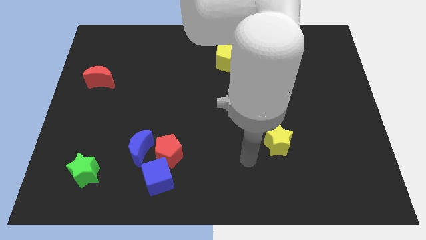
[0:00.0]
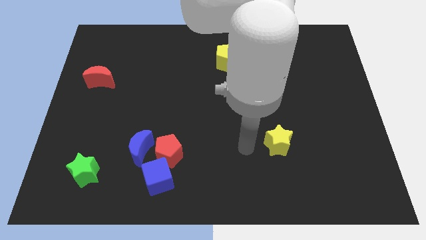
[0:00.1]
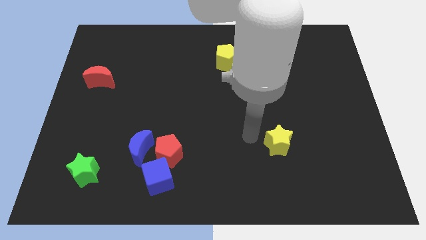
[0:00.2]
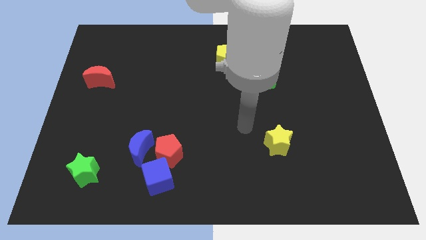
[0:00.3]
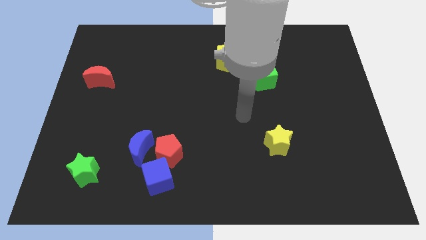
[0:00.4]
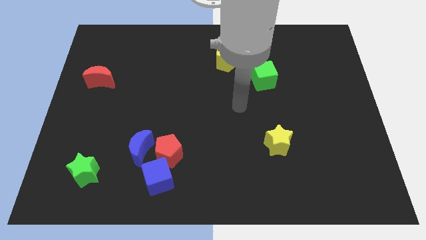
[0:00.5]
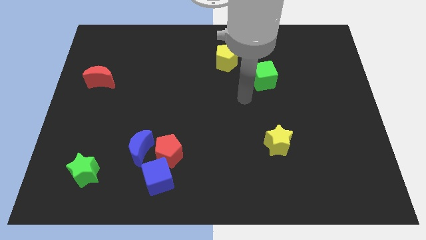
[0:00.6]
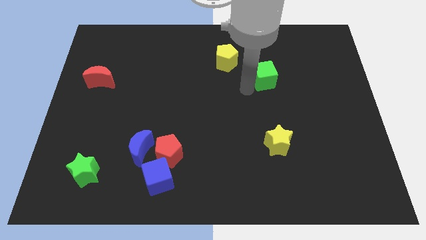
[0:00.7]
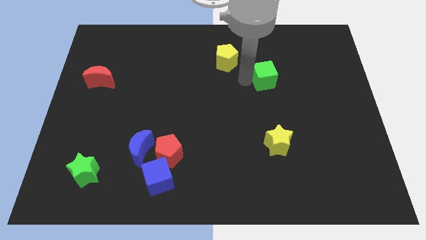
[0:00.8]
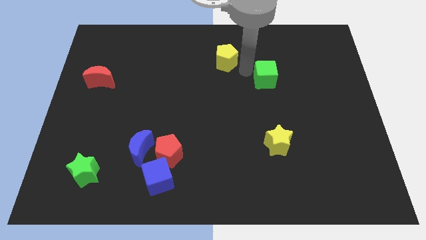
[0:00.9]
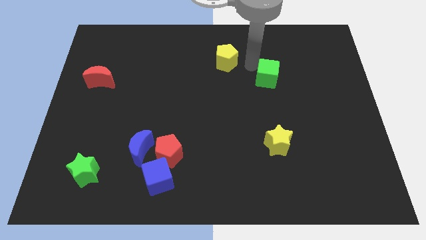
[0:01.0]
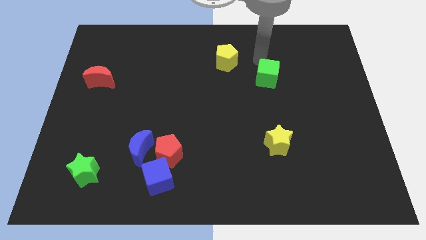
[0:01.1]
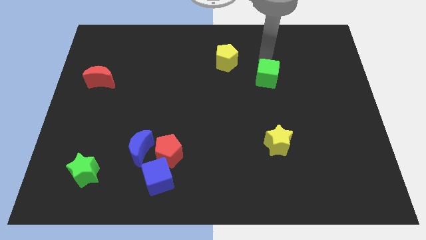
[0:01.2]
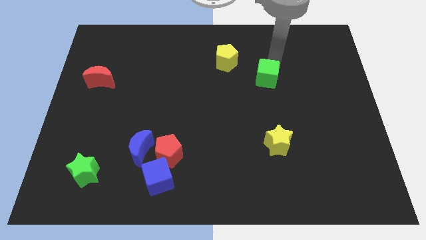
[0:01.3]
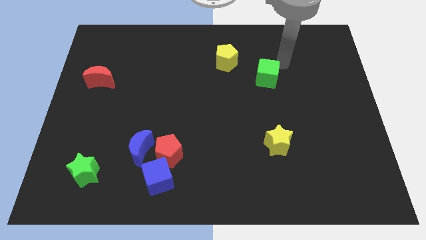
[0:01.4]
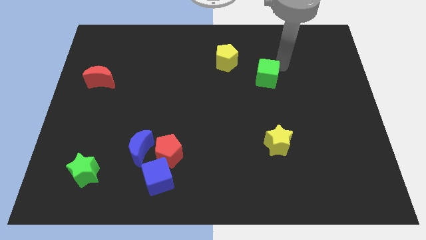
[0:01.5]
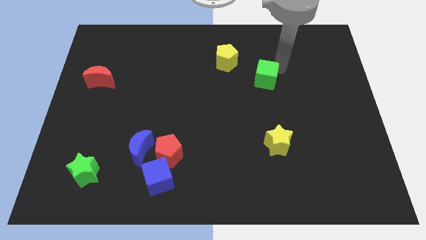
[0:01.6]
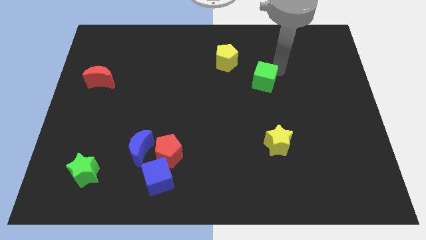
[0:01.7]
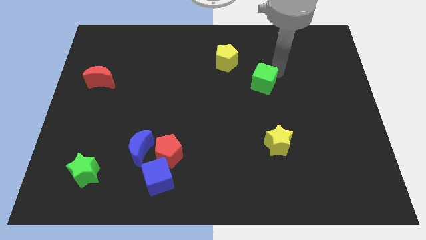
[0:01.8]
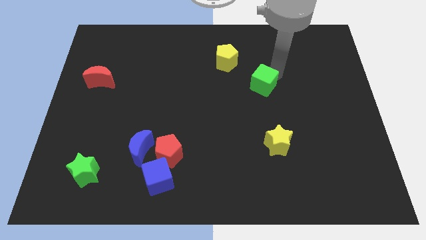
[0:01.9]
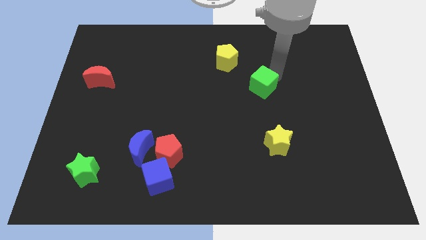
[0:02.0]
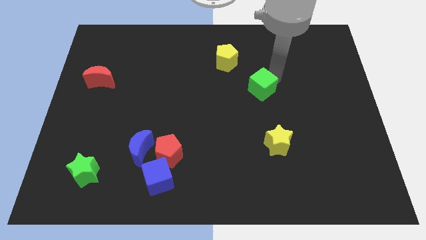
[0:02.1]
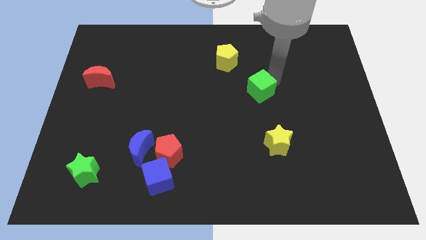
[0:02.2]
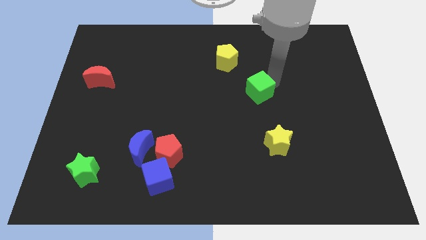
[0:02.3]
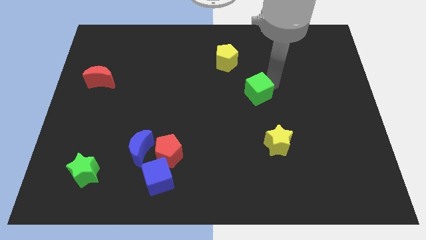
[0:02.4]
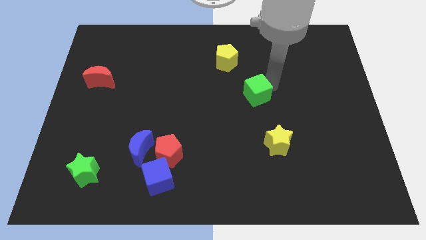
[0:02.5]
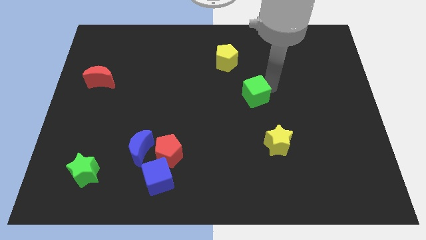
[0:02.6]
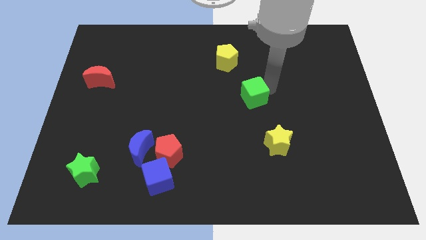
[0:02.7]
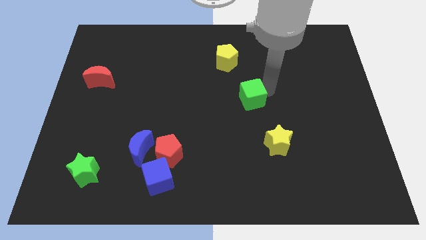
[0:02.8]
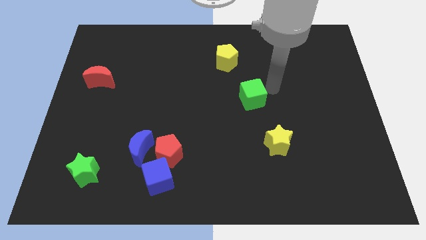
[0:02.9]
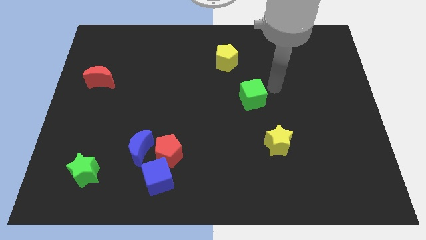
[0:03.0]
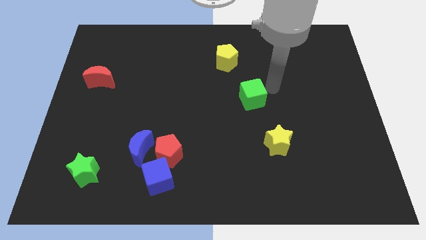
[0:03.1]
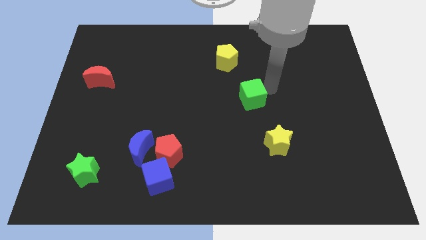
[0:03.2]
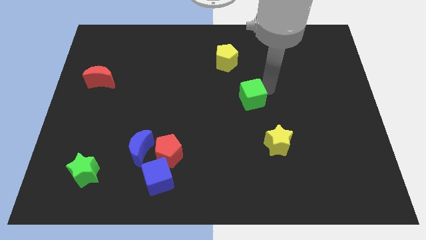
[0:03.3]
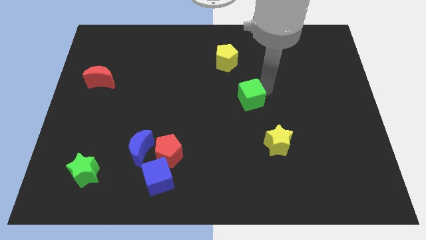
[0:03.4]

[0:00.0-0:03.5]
slightly move the green cube downwards and to the left

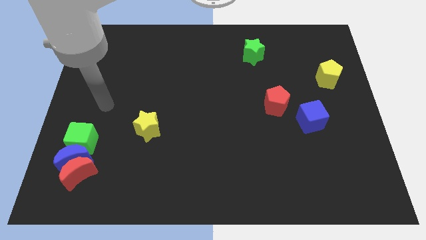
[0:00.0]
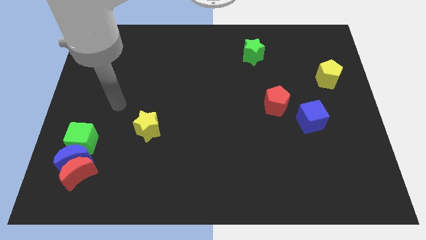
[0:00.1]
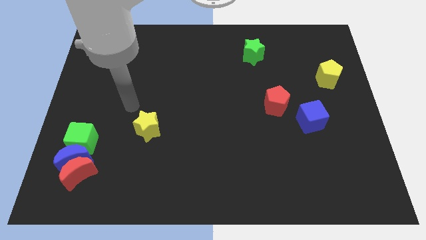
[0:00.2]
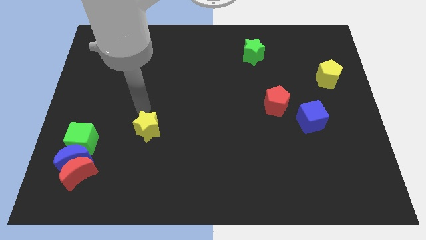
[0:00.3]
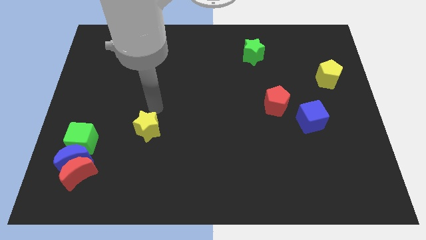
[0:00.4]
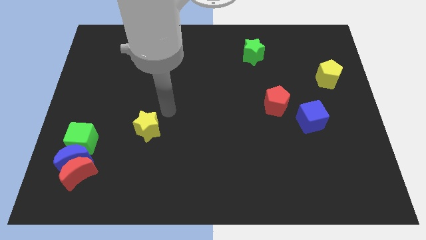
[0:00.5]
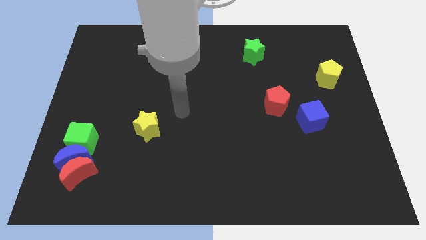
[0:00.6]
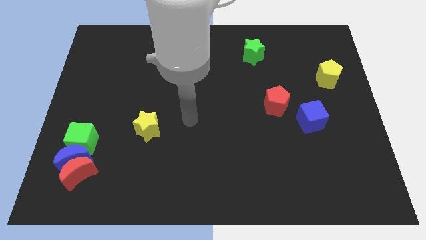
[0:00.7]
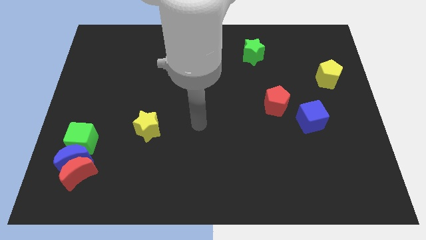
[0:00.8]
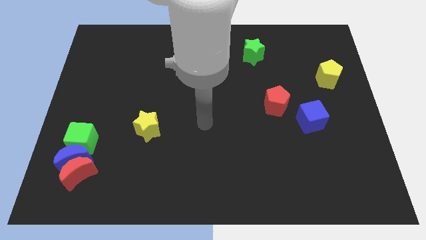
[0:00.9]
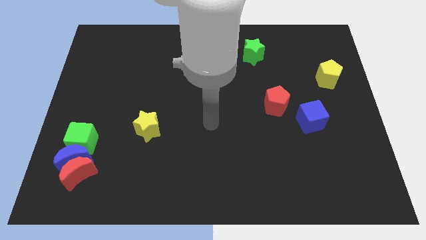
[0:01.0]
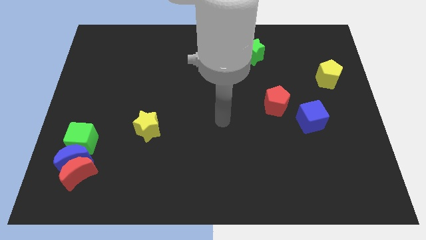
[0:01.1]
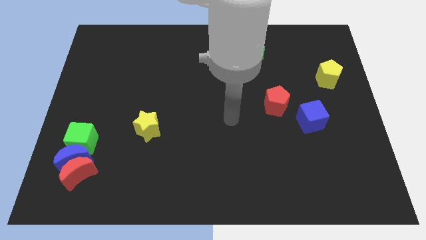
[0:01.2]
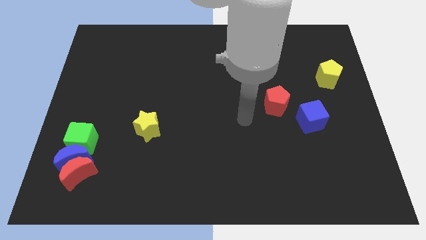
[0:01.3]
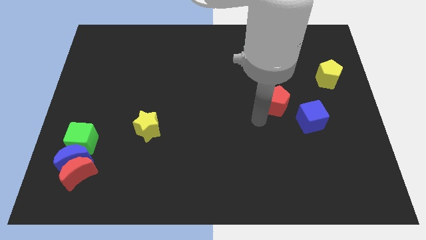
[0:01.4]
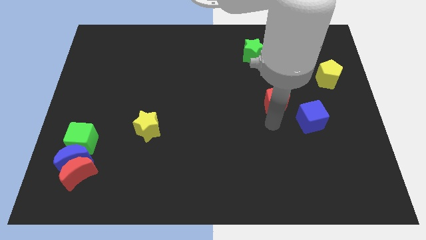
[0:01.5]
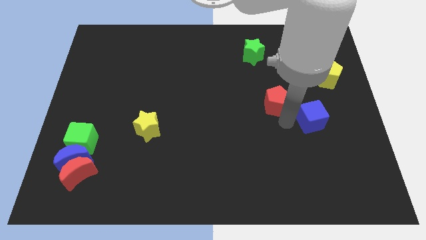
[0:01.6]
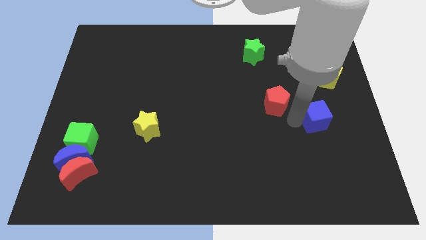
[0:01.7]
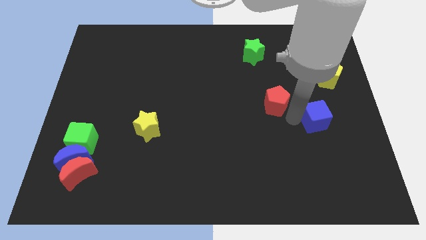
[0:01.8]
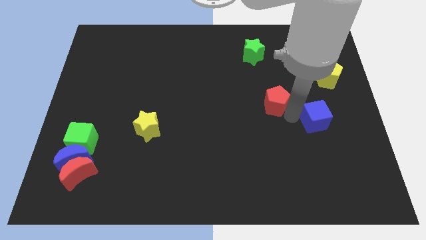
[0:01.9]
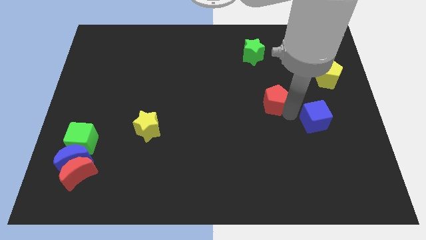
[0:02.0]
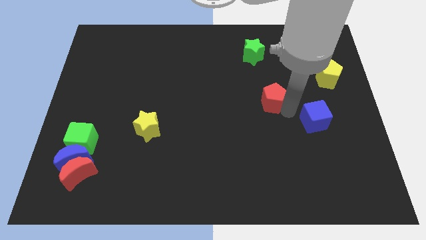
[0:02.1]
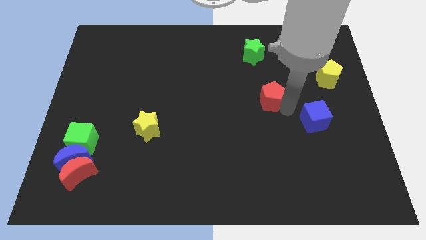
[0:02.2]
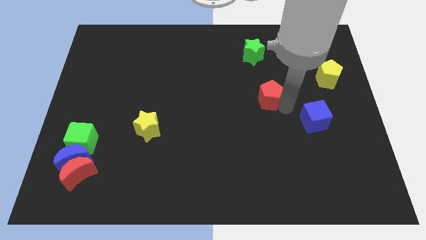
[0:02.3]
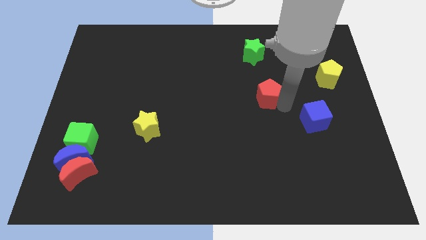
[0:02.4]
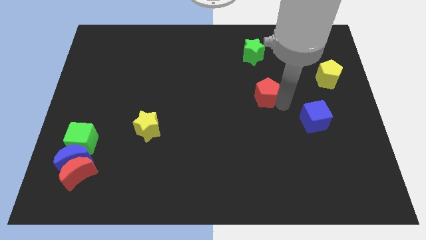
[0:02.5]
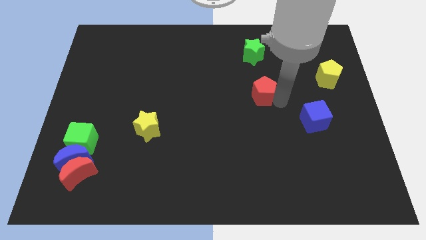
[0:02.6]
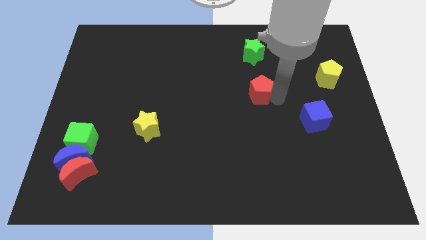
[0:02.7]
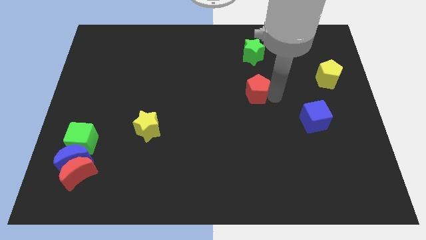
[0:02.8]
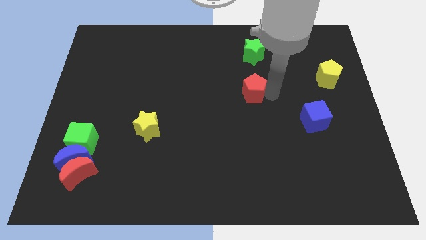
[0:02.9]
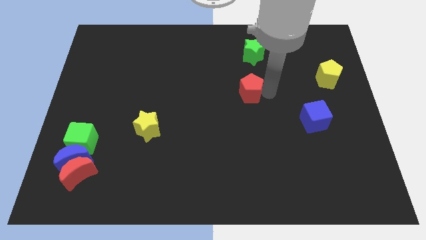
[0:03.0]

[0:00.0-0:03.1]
slide the red pentagon up and to the left diagonally slightly

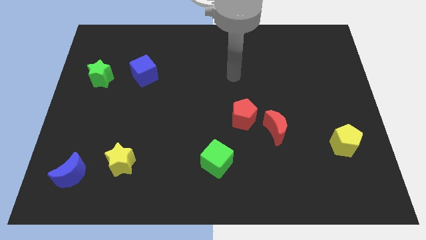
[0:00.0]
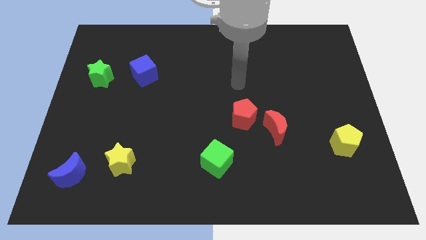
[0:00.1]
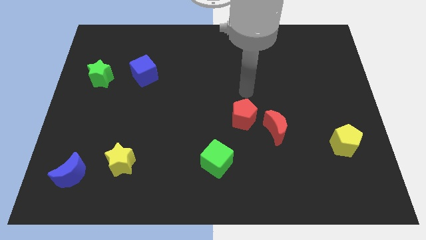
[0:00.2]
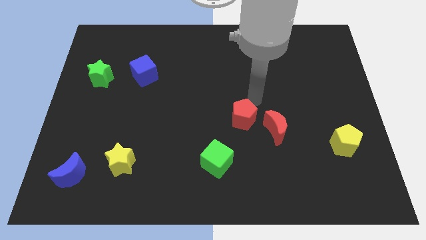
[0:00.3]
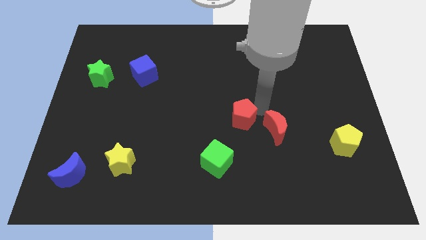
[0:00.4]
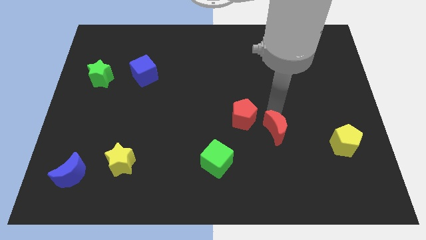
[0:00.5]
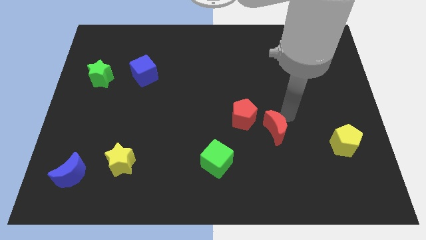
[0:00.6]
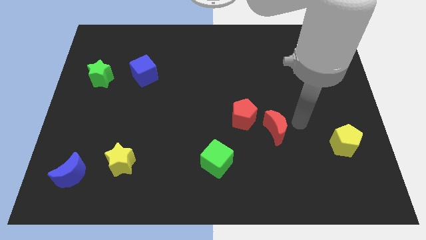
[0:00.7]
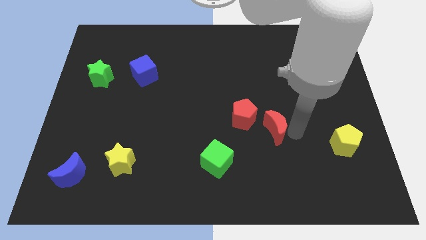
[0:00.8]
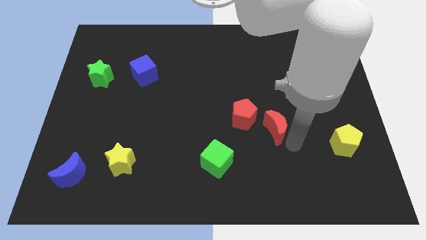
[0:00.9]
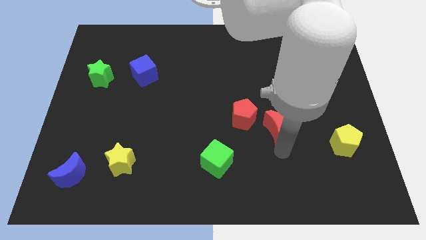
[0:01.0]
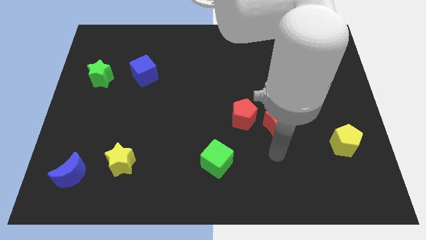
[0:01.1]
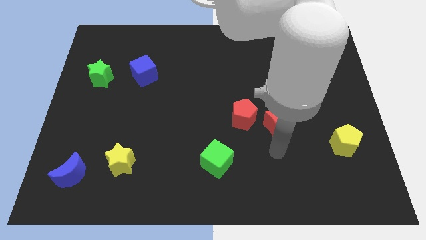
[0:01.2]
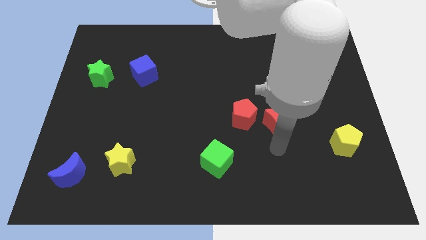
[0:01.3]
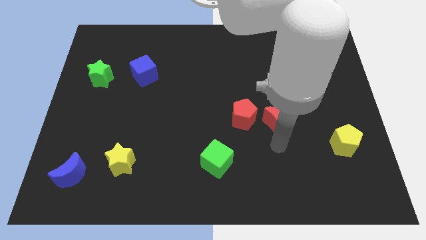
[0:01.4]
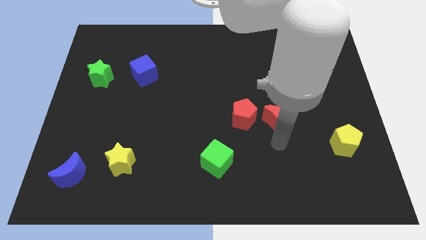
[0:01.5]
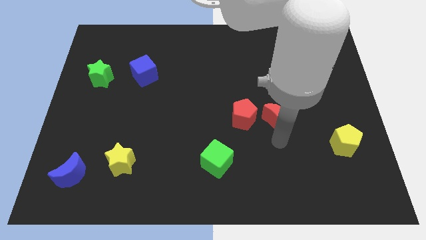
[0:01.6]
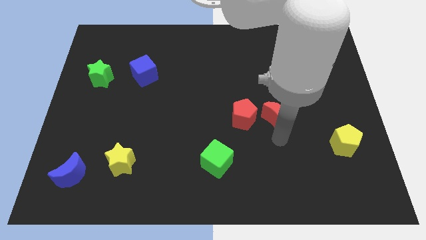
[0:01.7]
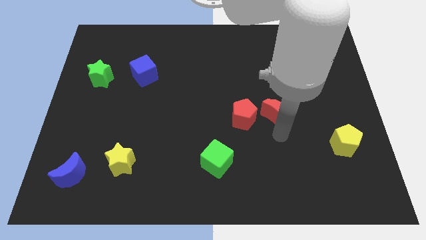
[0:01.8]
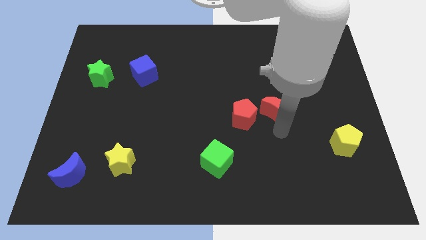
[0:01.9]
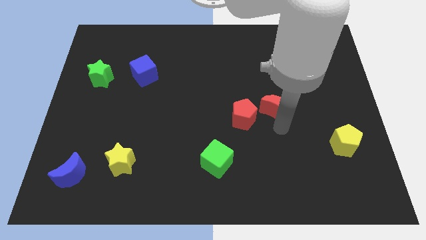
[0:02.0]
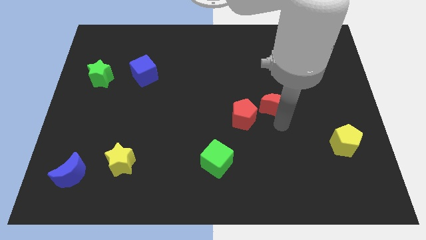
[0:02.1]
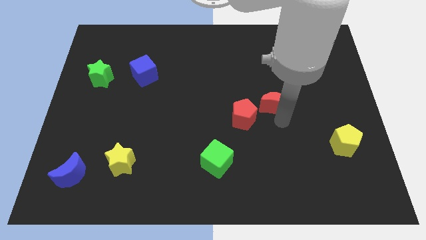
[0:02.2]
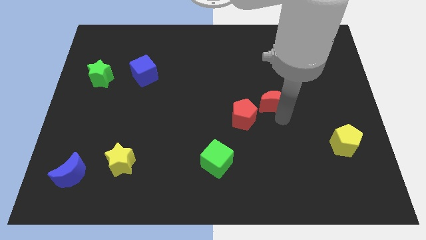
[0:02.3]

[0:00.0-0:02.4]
move the red moon a bit up
